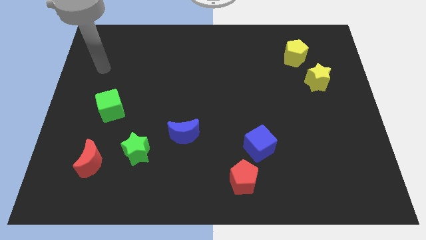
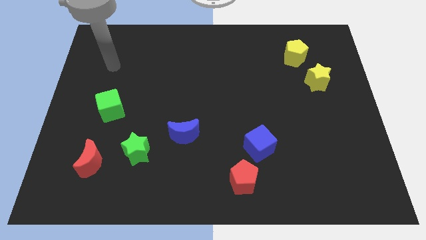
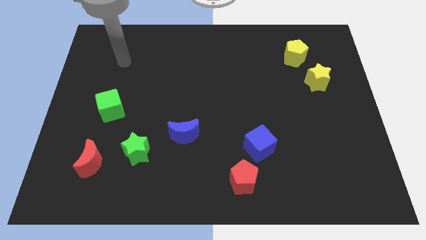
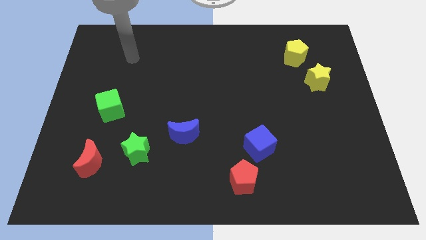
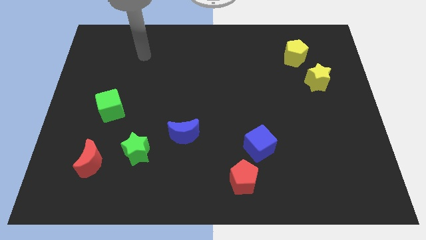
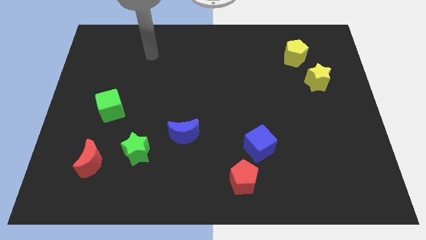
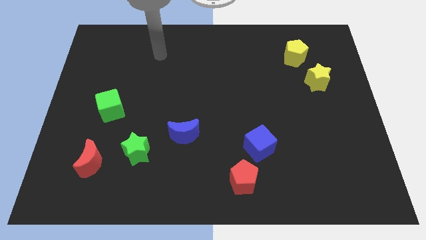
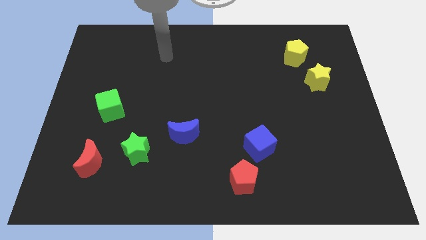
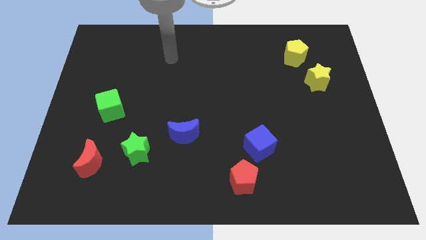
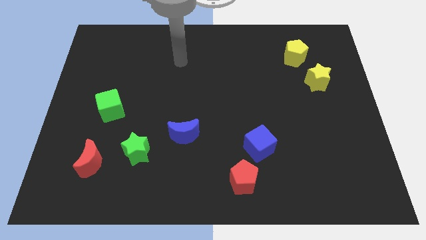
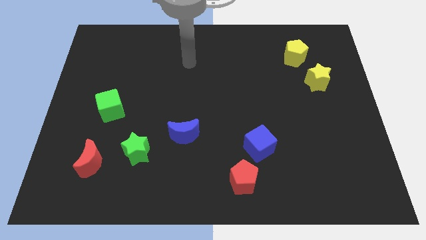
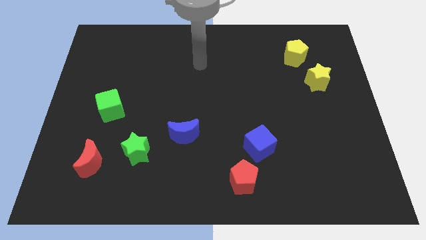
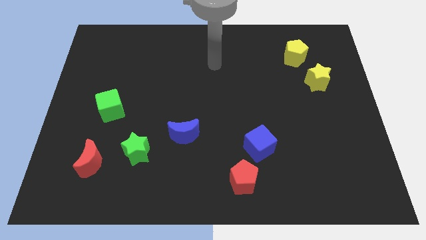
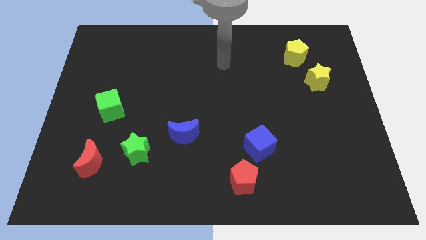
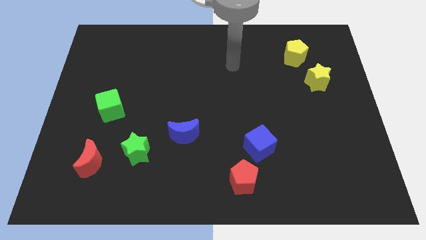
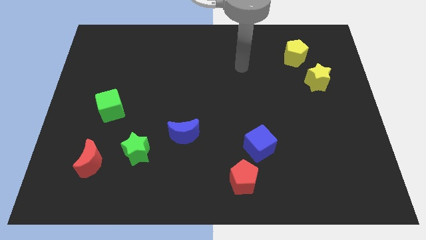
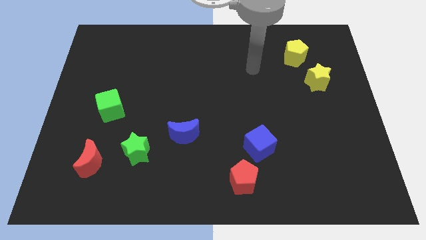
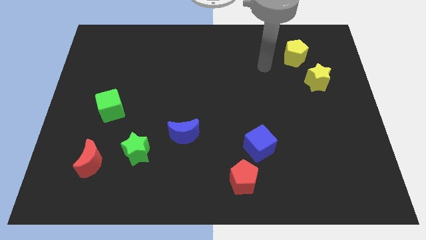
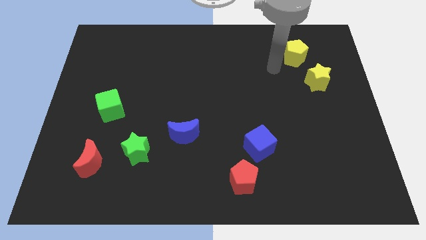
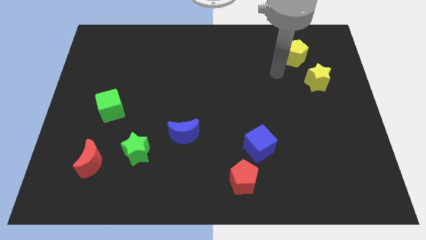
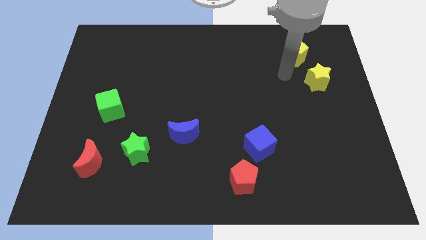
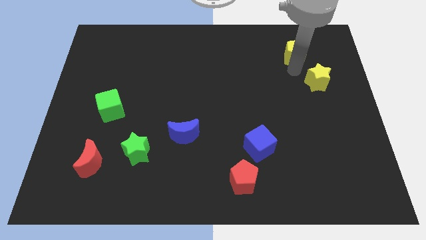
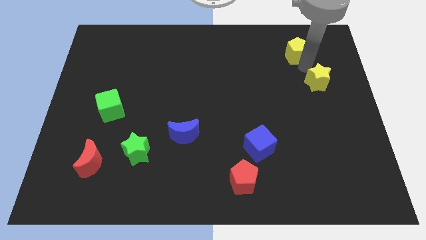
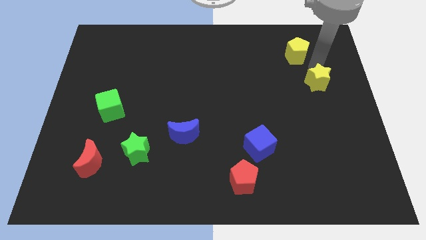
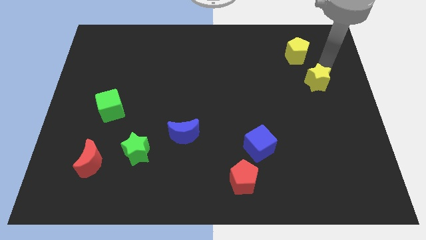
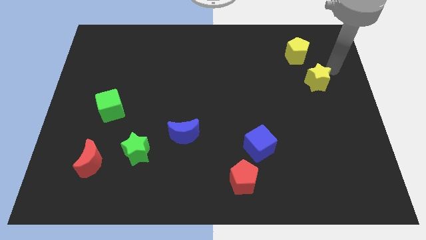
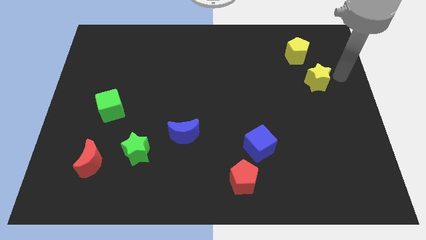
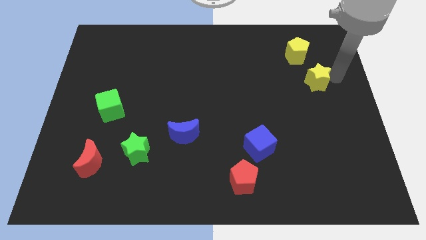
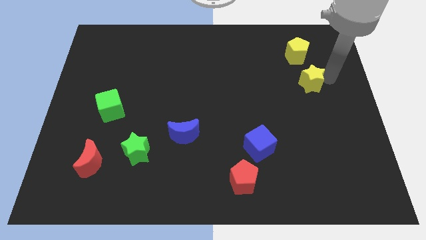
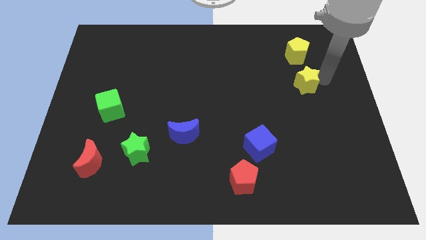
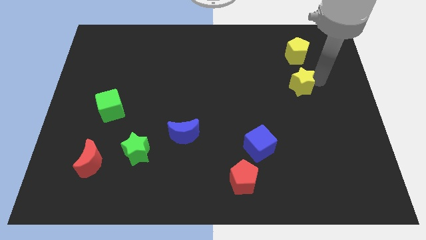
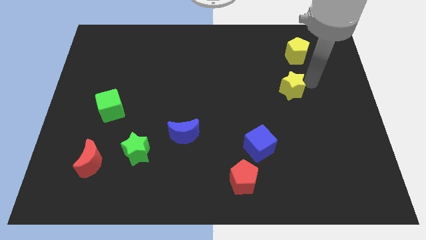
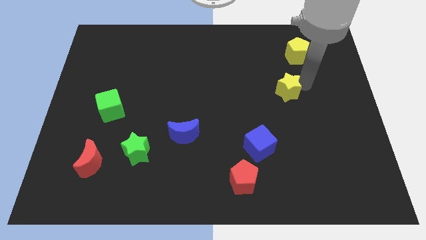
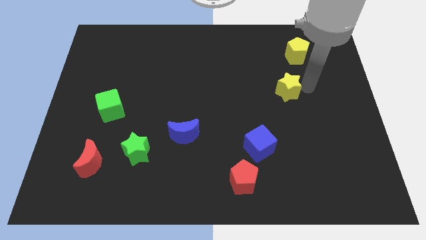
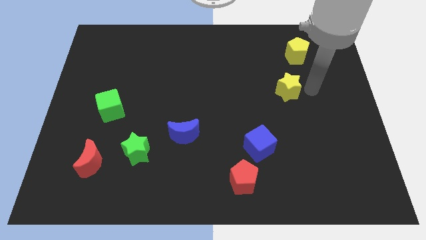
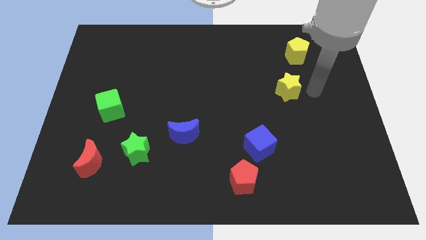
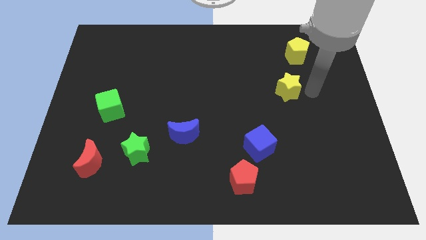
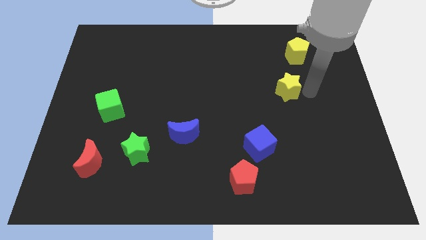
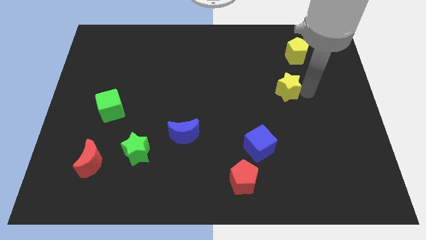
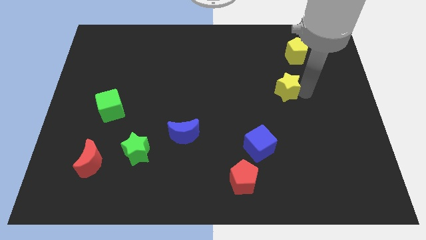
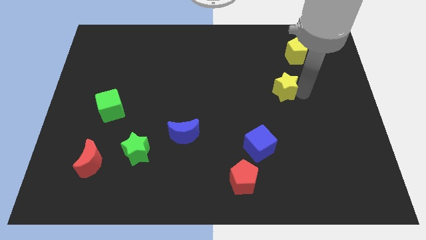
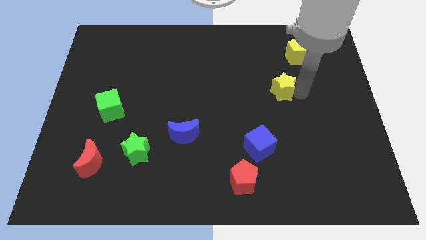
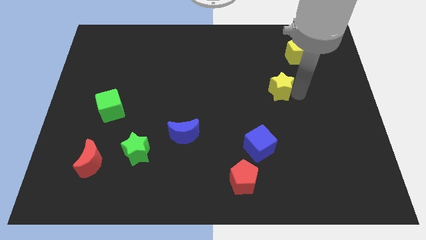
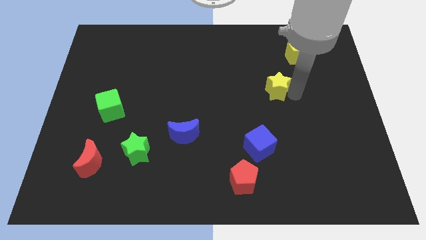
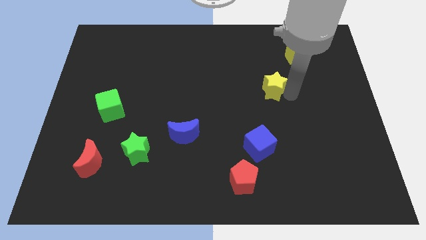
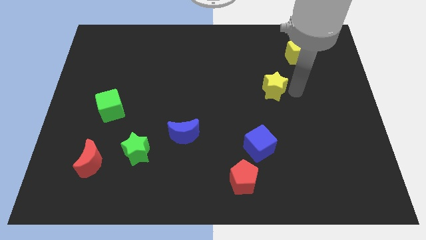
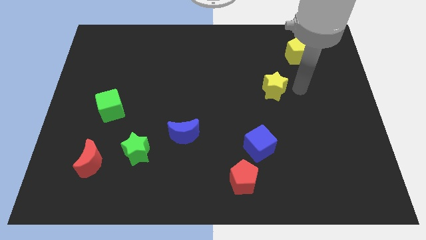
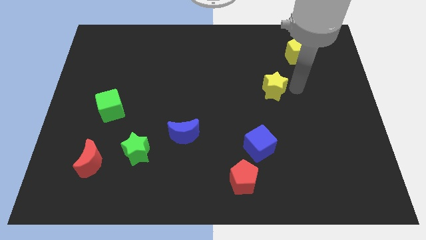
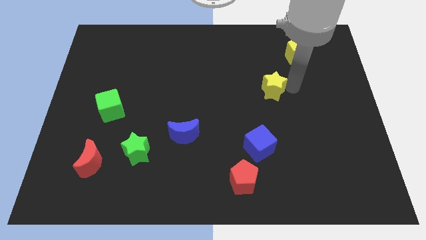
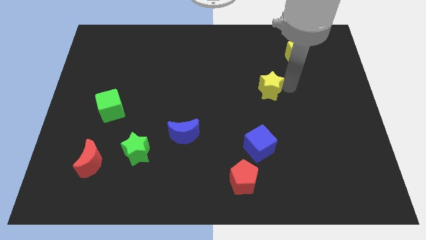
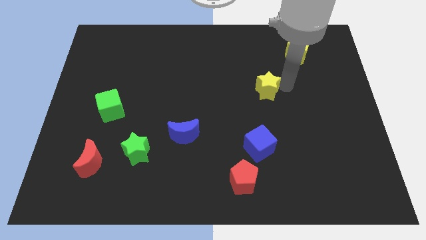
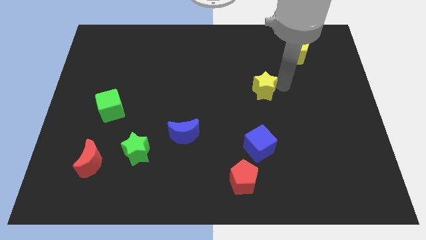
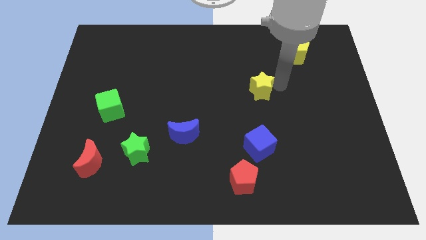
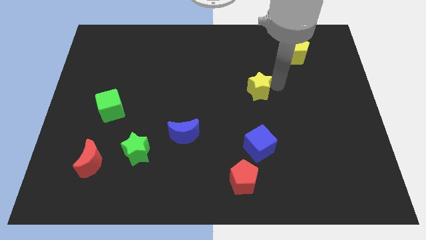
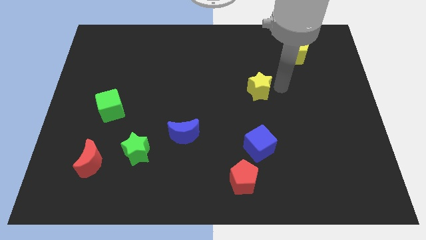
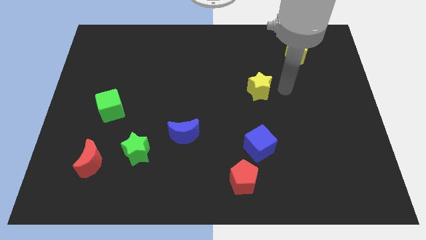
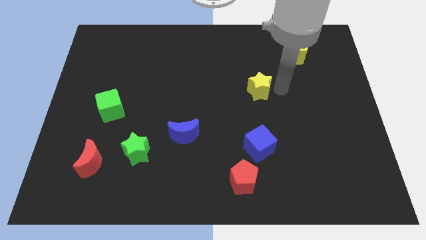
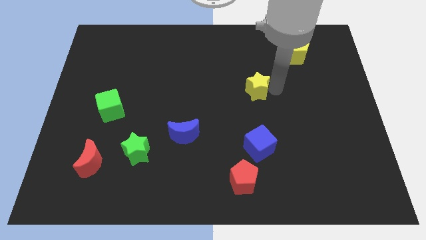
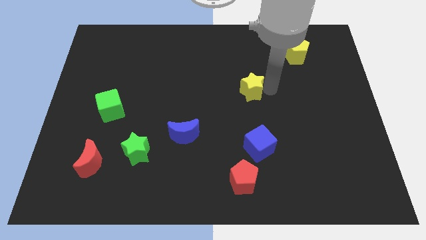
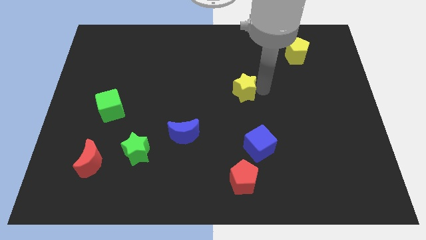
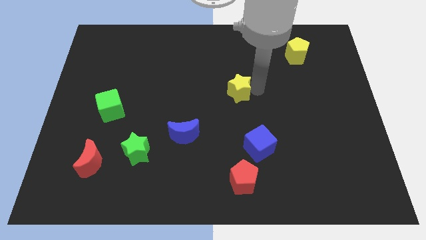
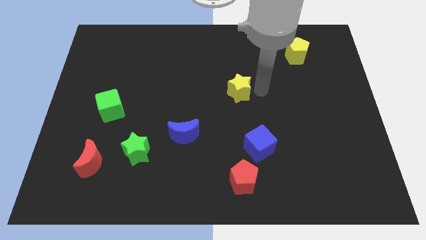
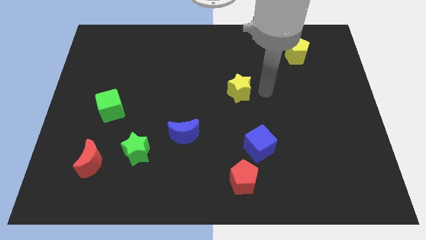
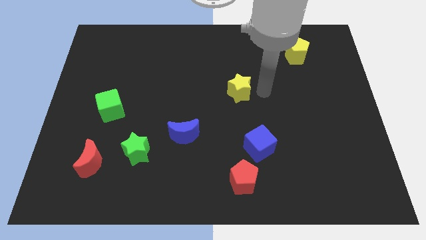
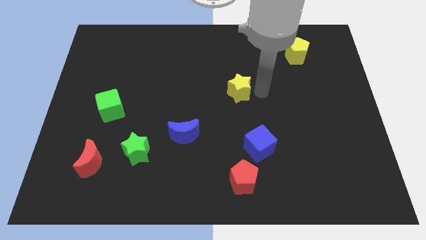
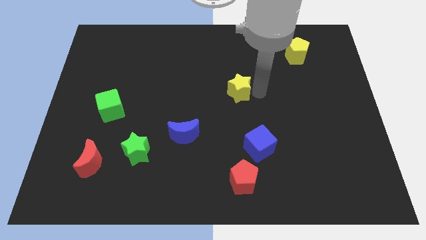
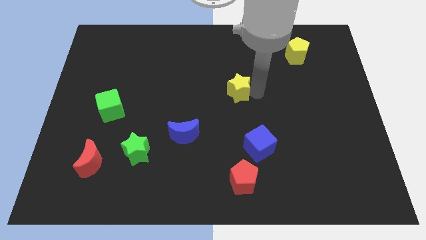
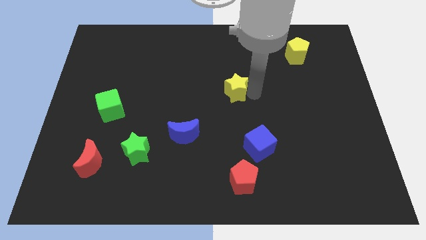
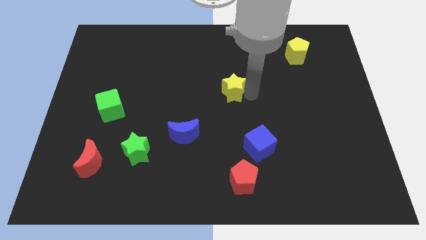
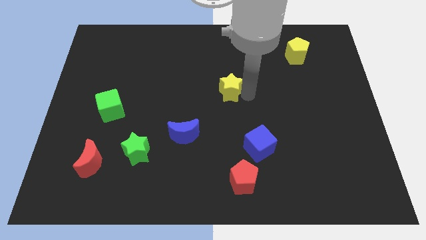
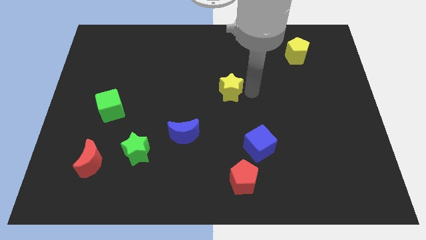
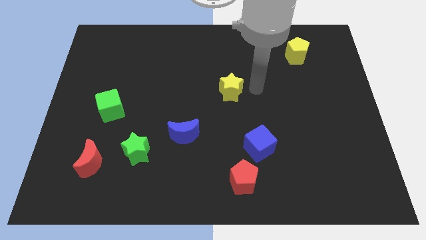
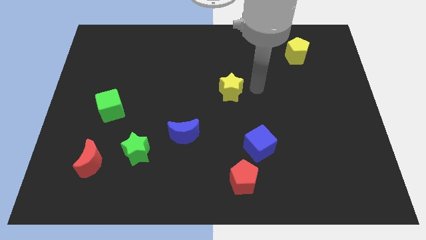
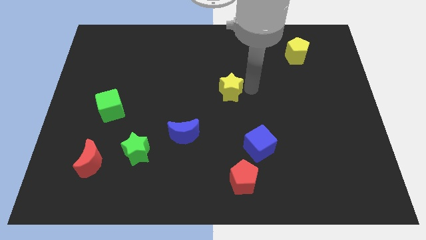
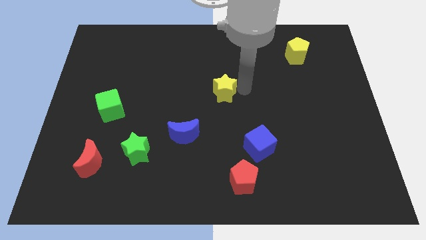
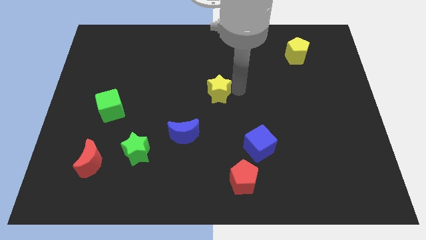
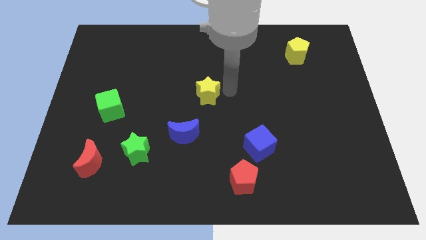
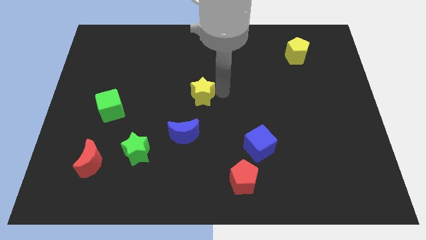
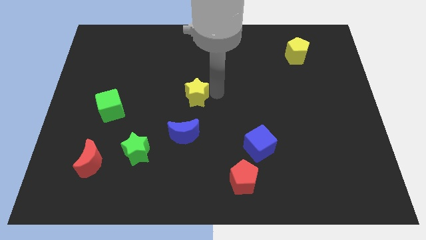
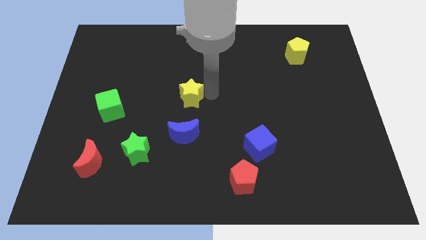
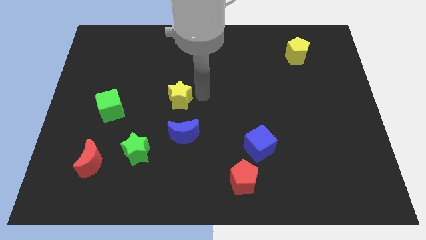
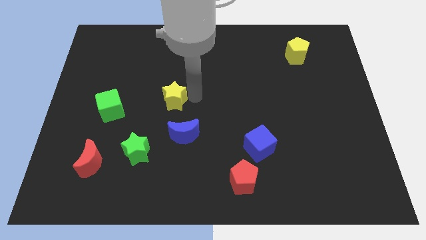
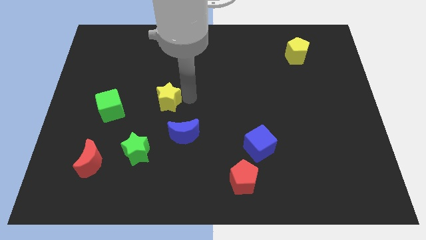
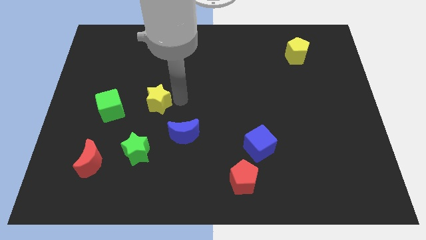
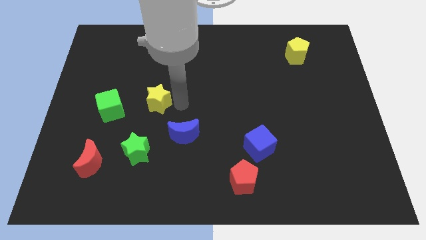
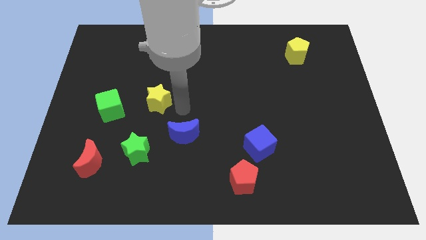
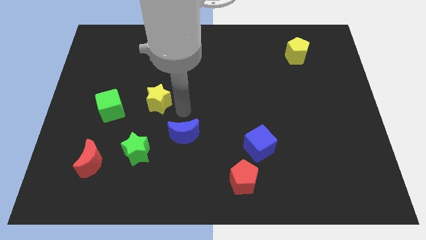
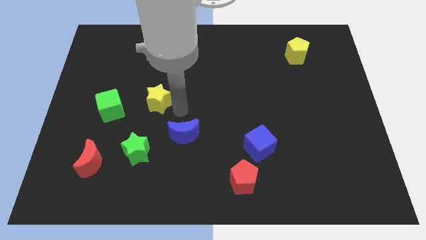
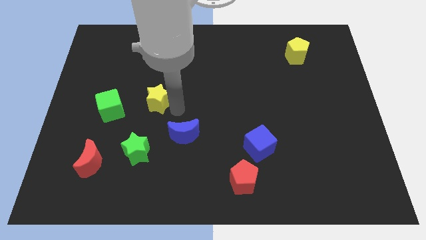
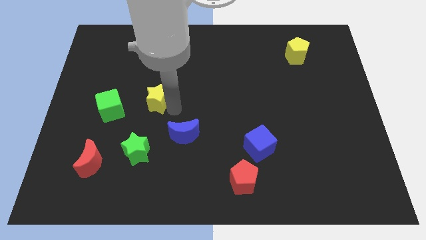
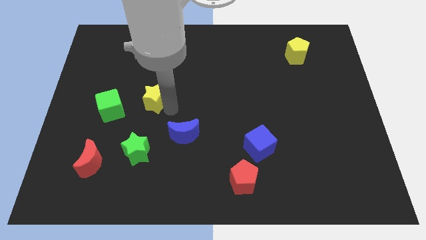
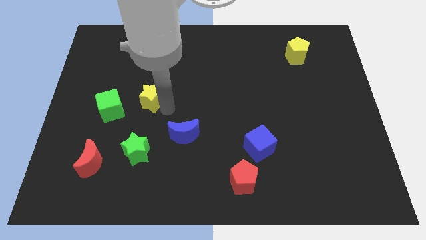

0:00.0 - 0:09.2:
put the yellow star to the top right side of the green cube
